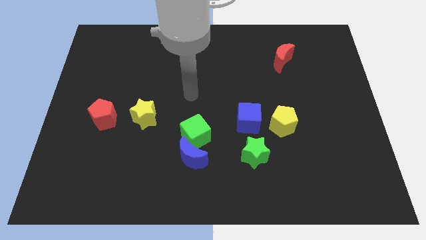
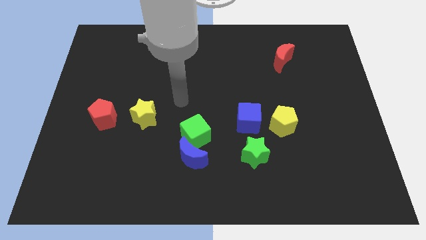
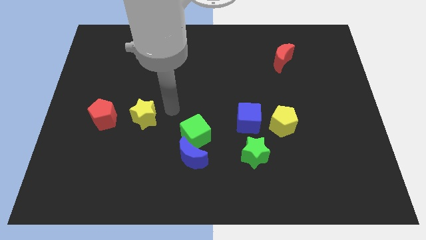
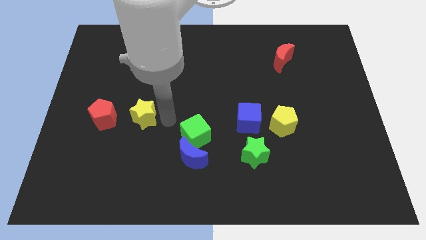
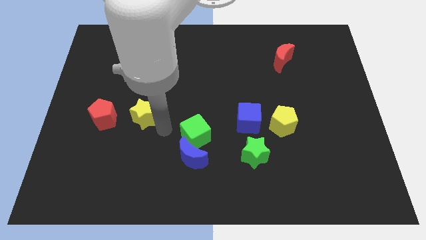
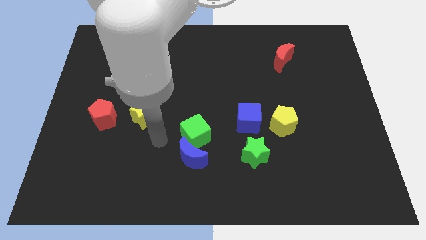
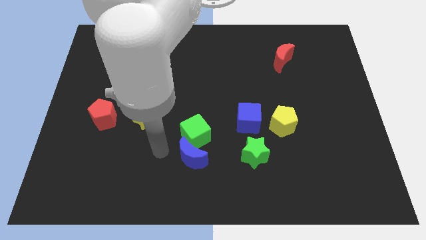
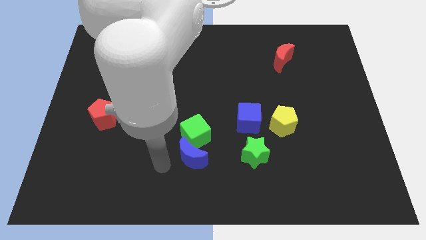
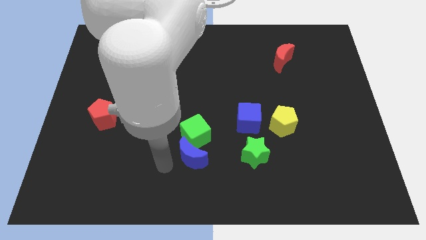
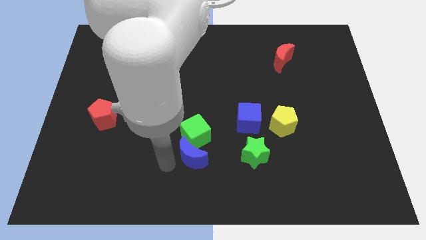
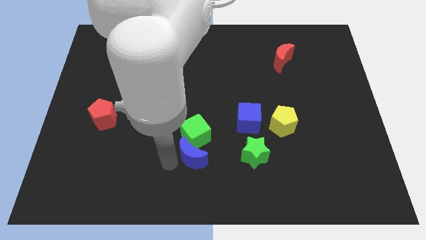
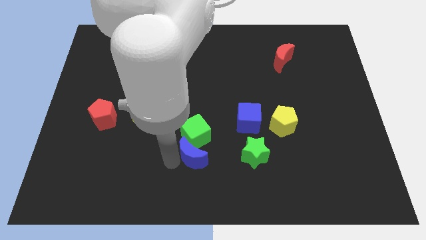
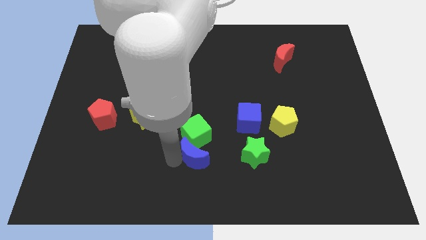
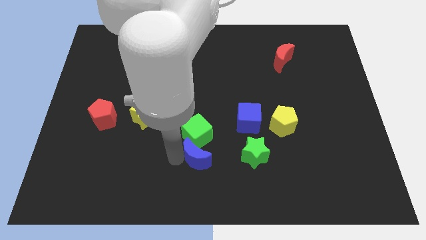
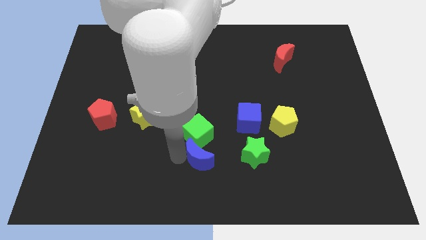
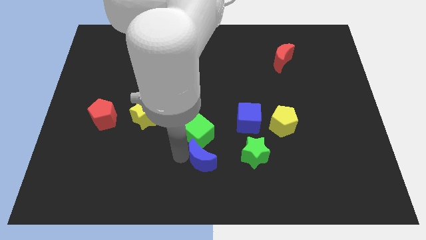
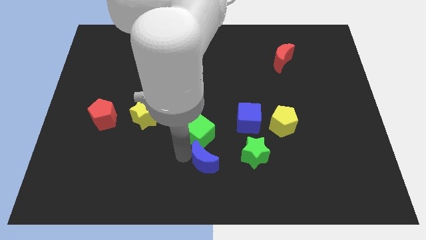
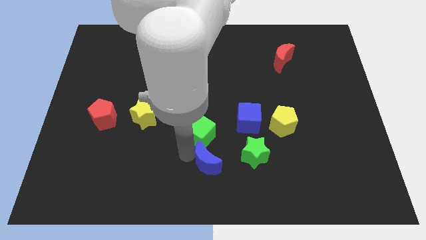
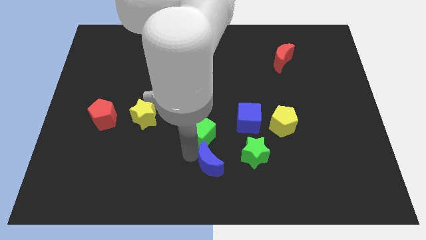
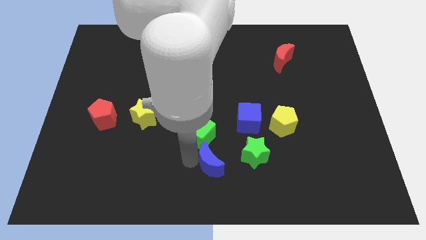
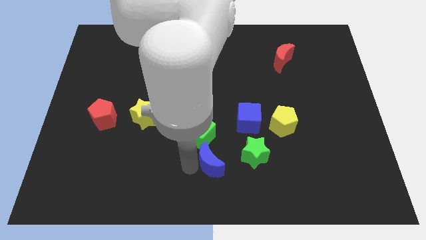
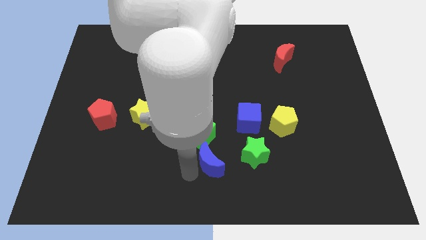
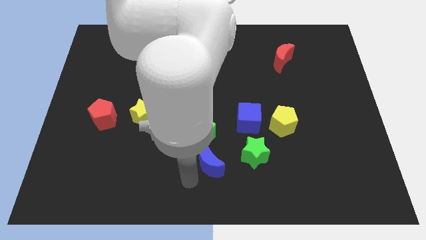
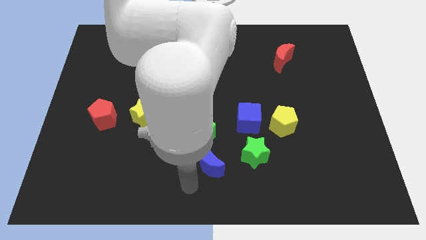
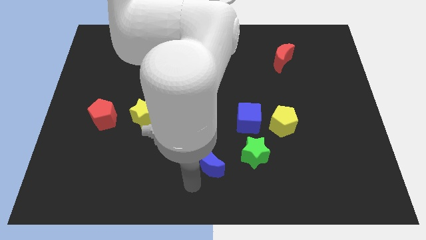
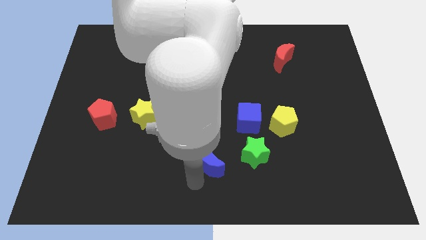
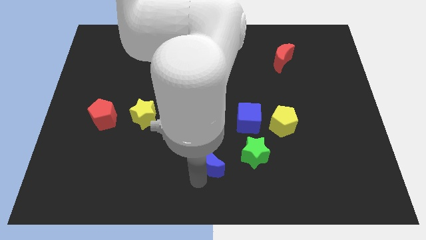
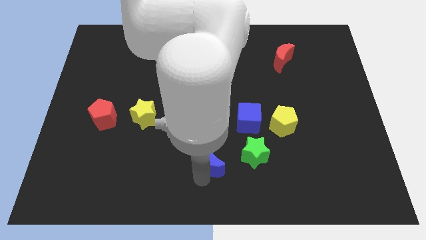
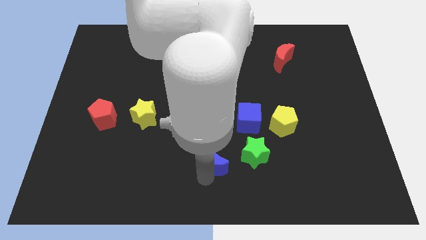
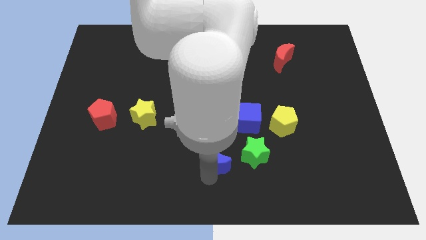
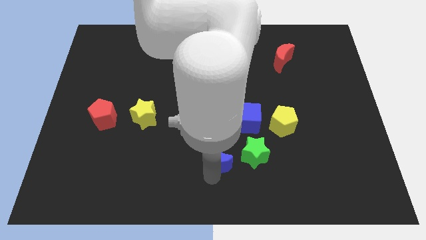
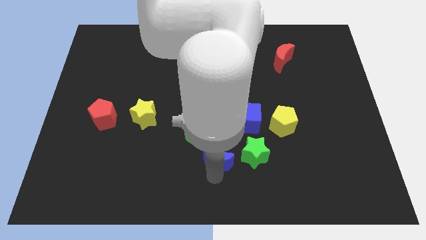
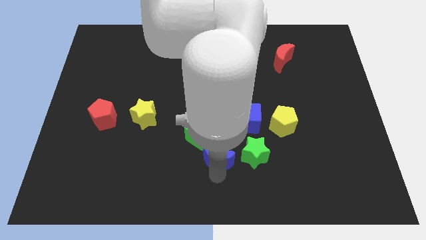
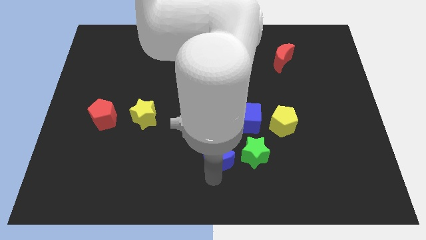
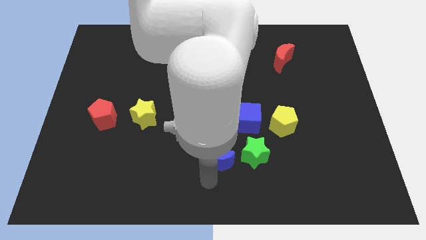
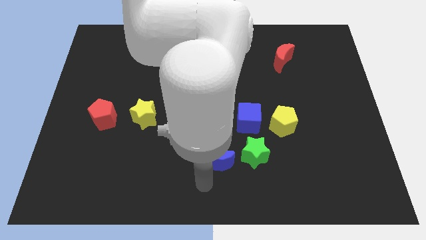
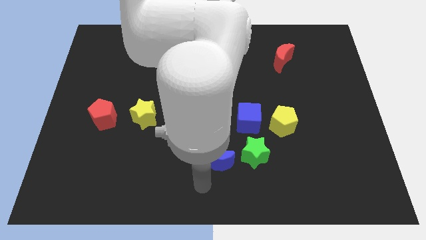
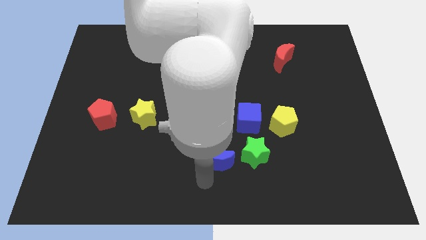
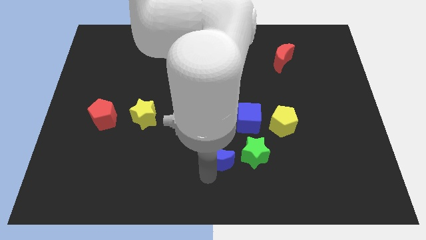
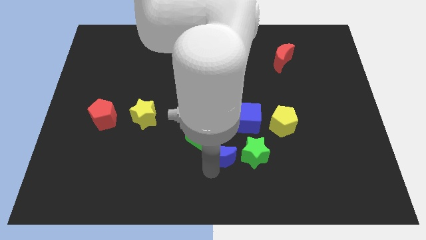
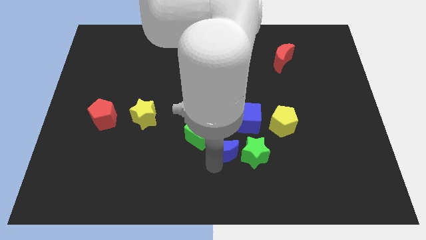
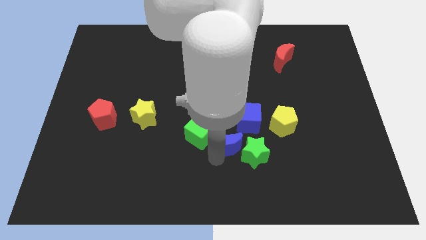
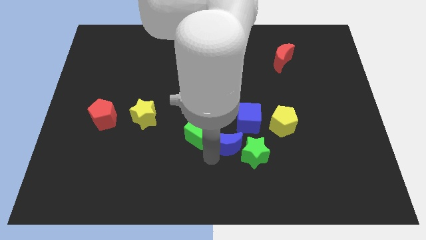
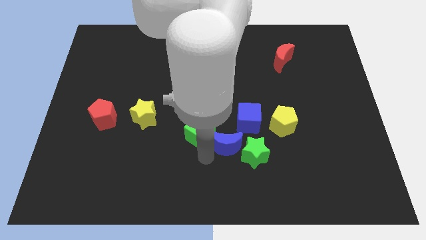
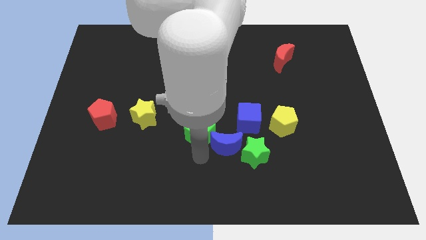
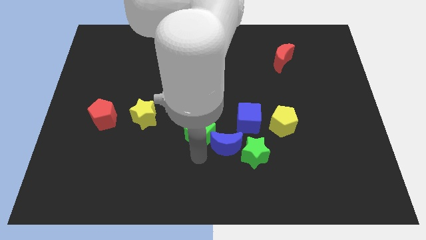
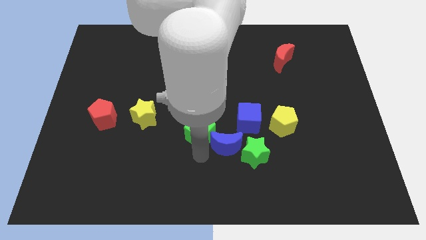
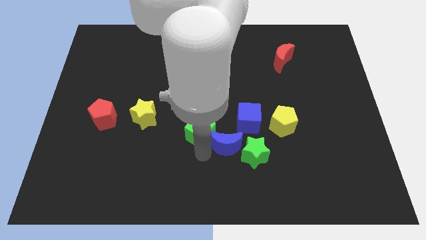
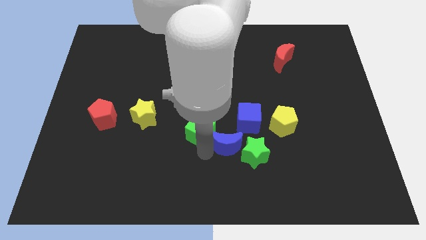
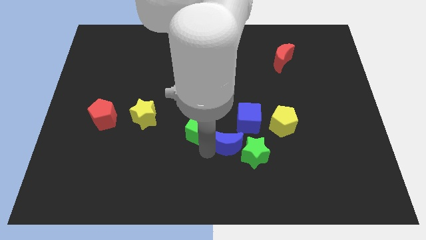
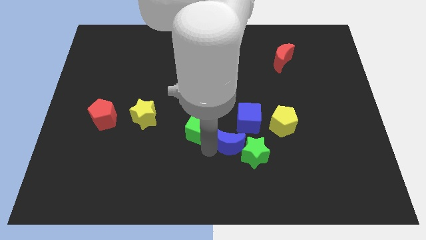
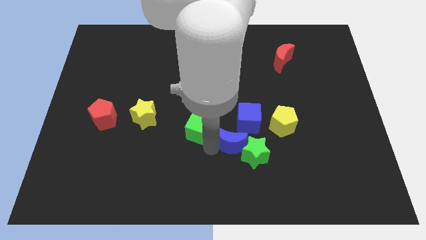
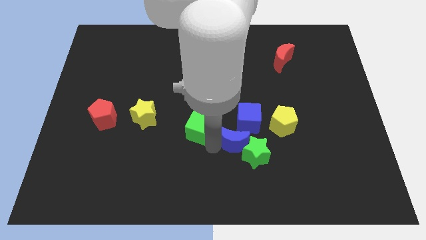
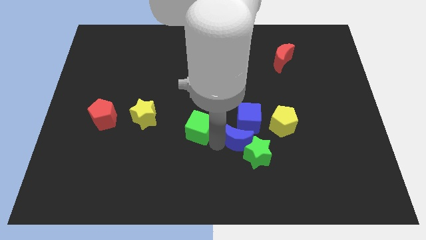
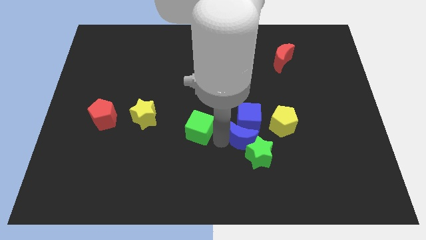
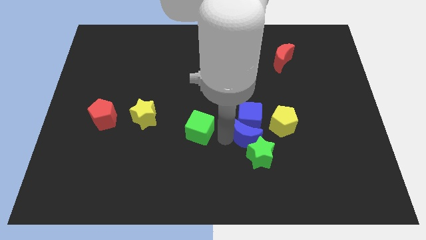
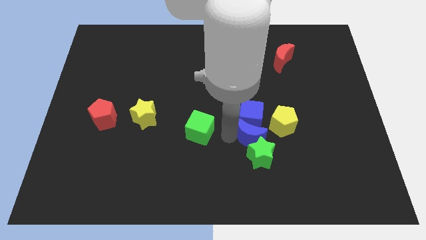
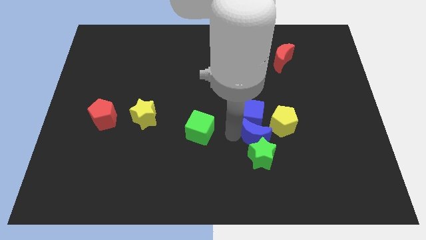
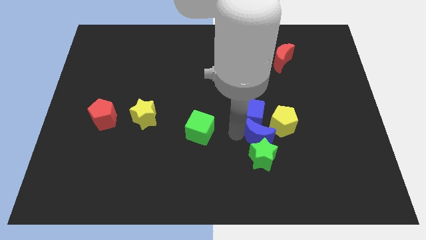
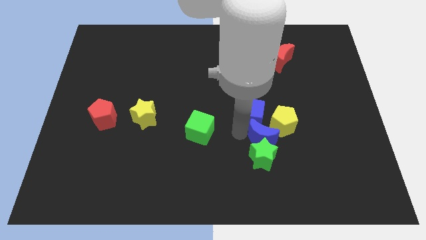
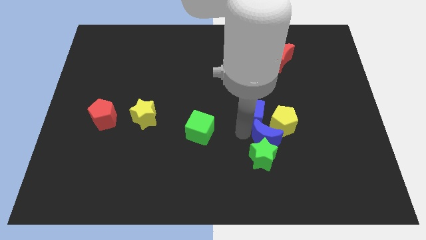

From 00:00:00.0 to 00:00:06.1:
put the blue moon towards the yellow pentagon

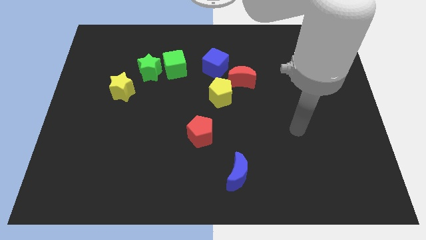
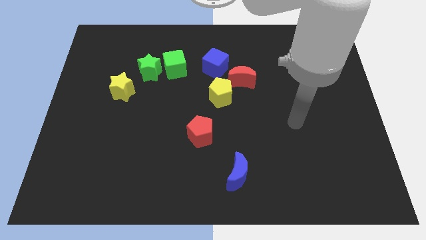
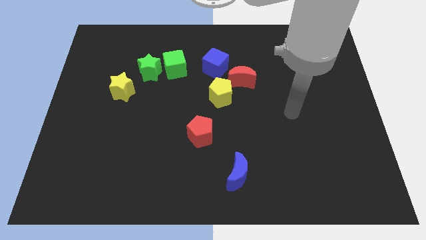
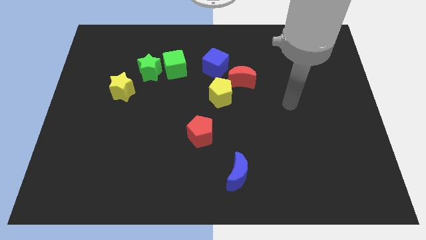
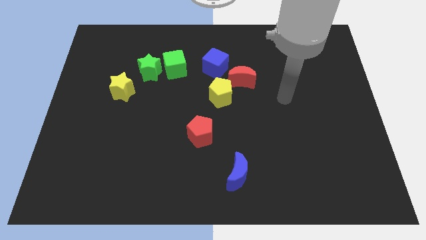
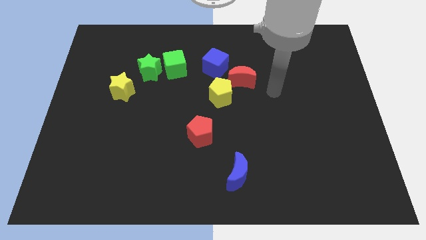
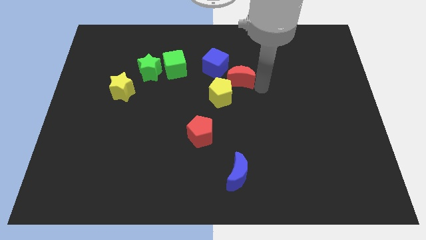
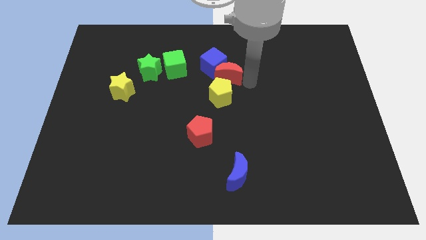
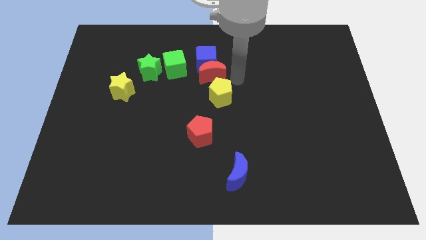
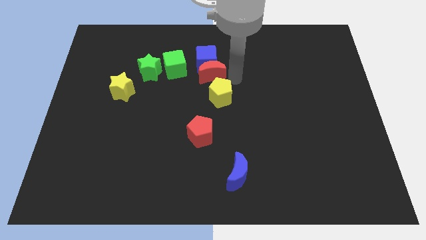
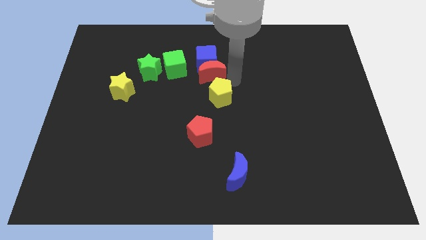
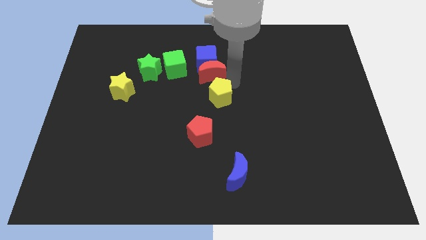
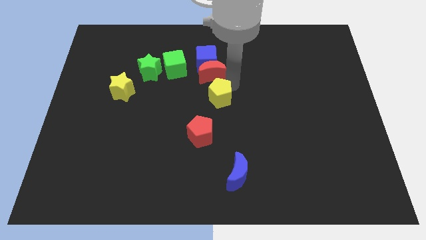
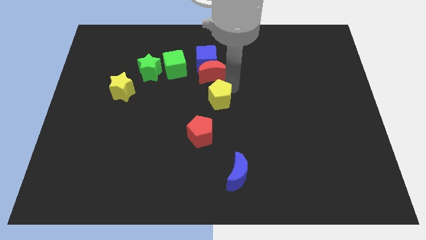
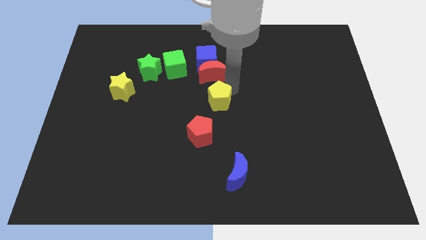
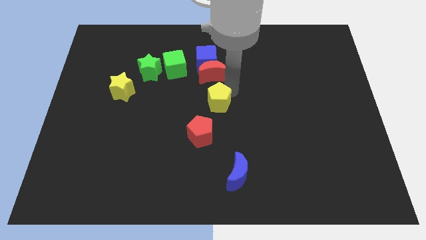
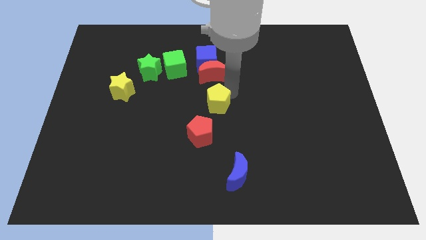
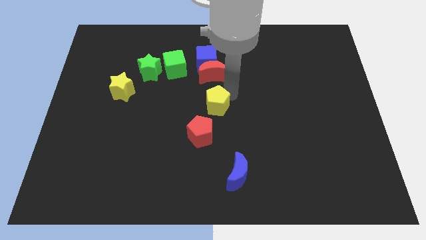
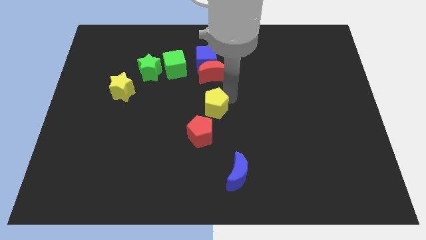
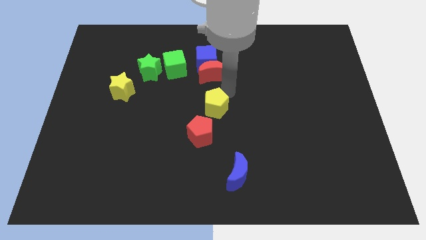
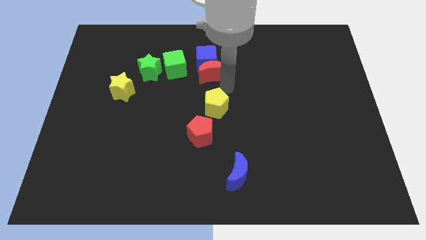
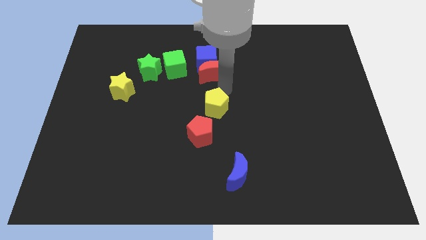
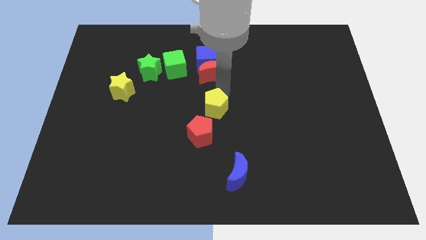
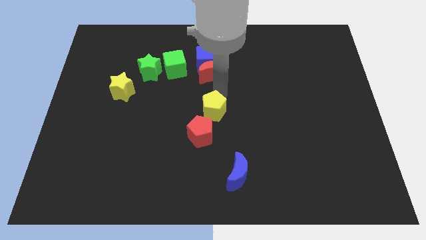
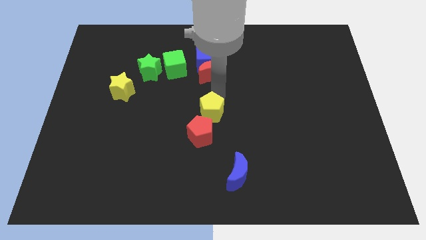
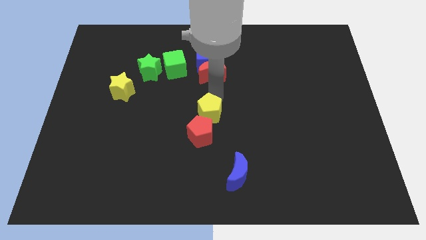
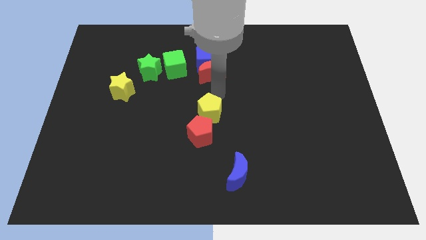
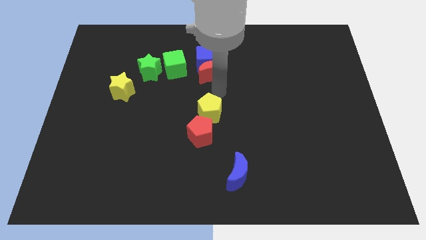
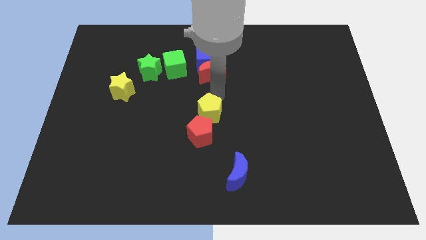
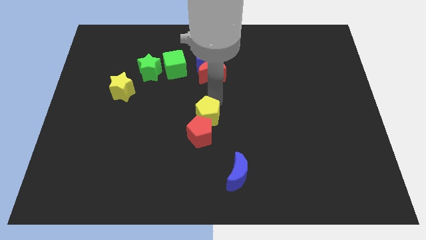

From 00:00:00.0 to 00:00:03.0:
move the yellow pentagon close to the red pentagon
